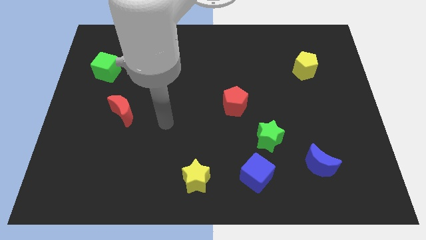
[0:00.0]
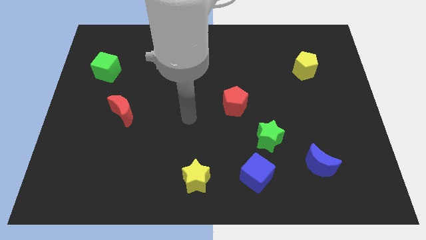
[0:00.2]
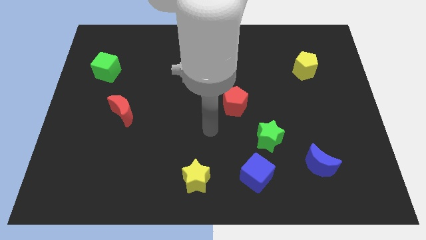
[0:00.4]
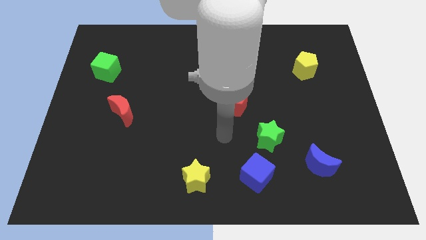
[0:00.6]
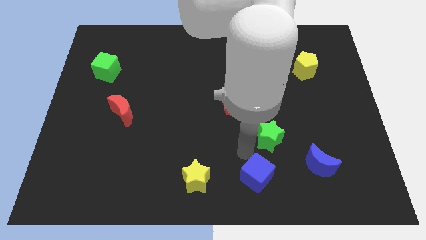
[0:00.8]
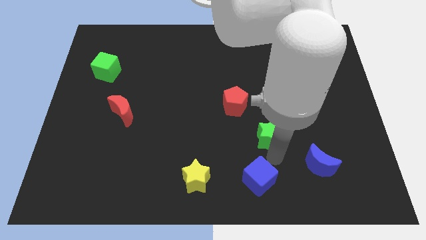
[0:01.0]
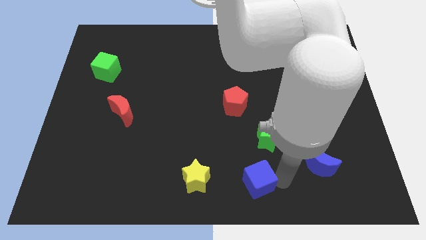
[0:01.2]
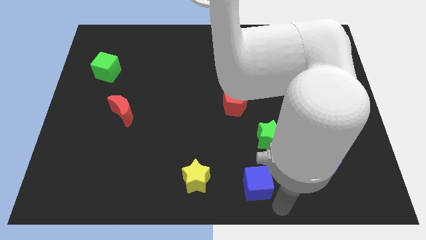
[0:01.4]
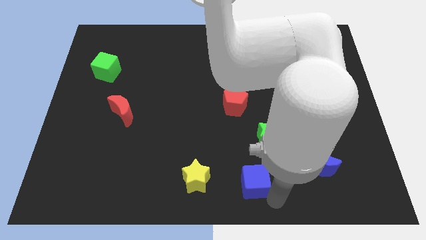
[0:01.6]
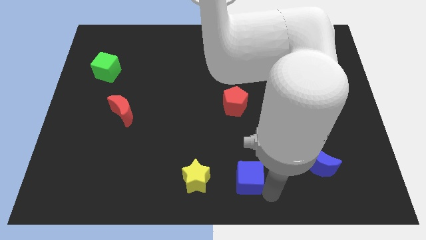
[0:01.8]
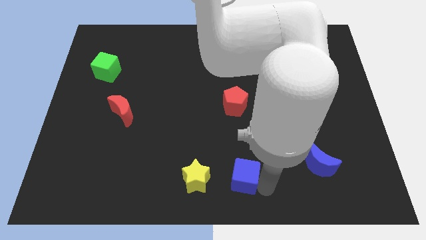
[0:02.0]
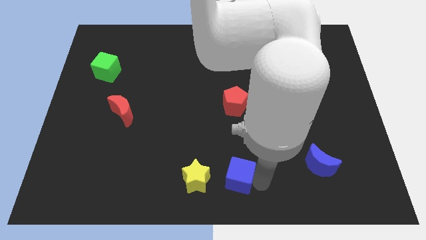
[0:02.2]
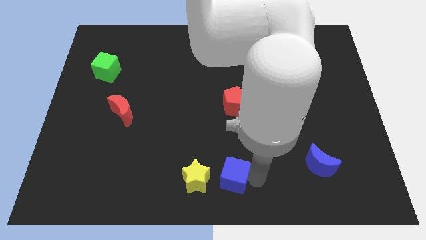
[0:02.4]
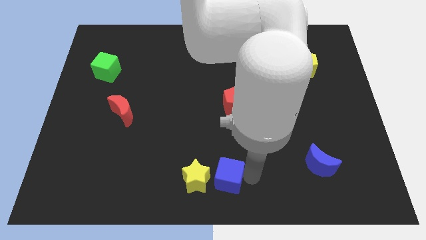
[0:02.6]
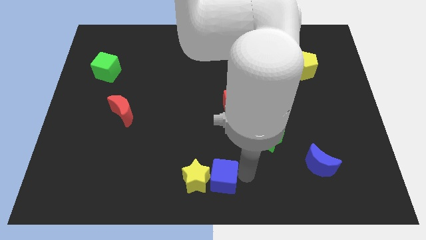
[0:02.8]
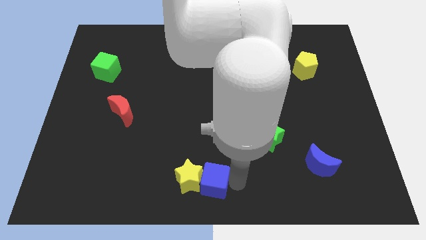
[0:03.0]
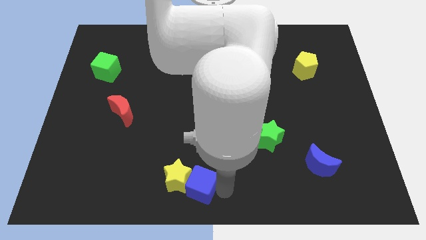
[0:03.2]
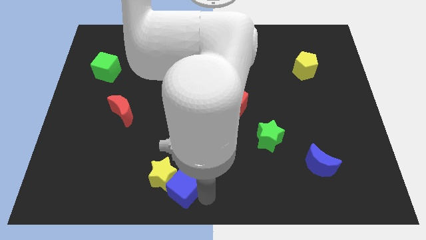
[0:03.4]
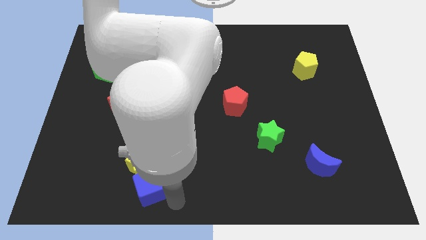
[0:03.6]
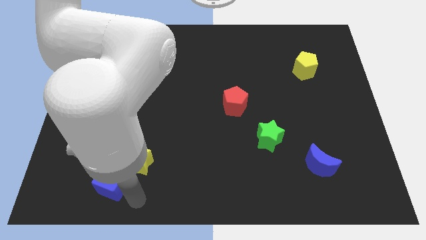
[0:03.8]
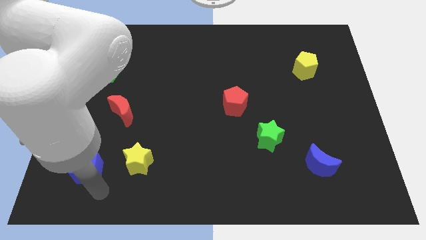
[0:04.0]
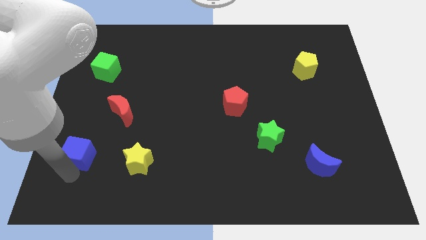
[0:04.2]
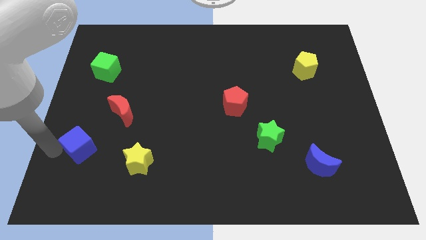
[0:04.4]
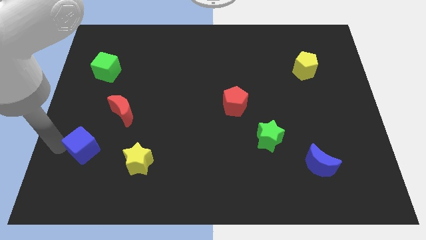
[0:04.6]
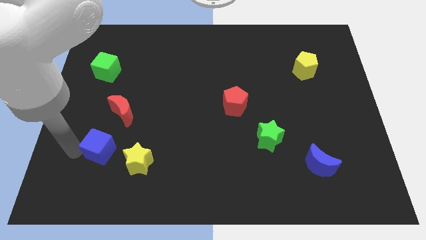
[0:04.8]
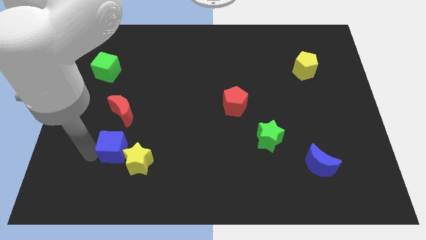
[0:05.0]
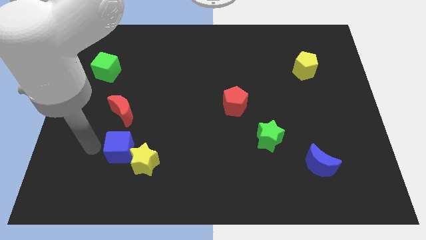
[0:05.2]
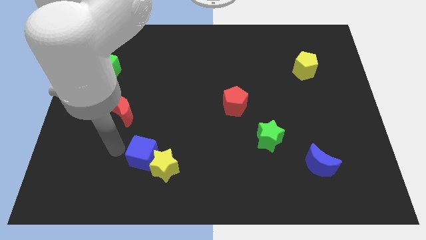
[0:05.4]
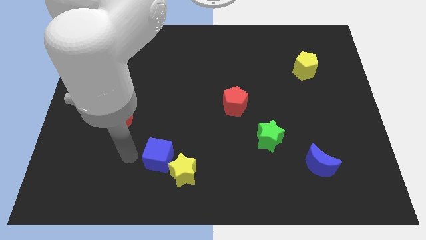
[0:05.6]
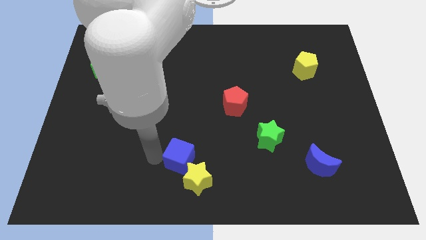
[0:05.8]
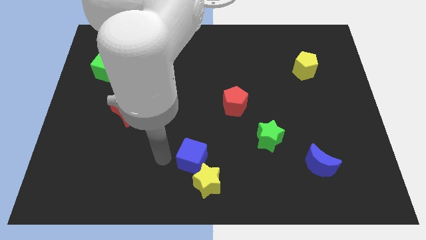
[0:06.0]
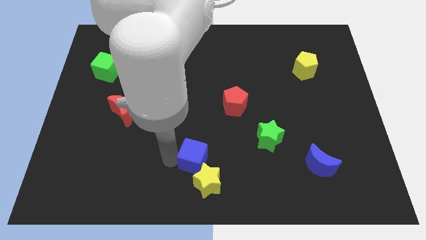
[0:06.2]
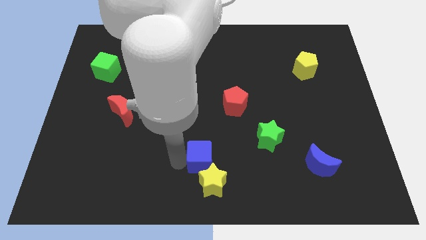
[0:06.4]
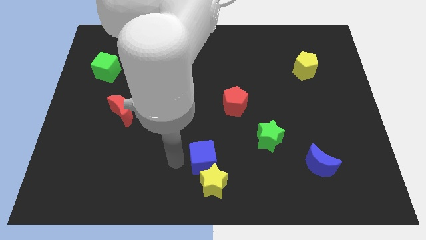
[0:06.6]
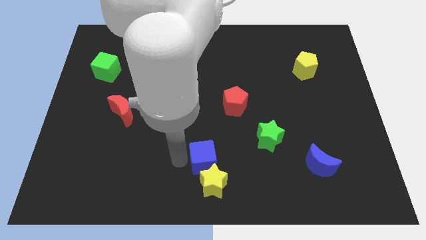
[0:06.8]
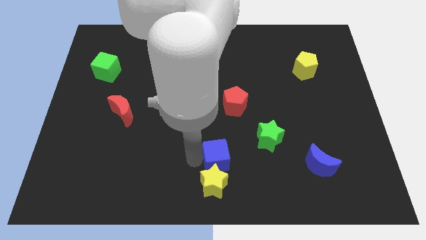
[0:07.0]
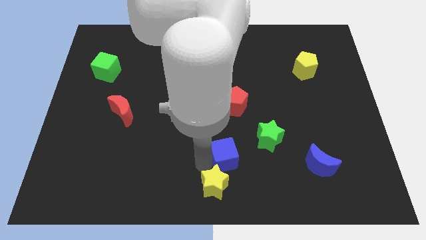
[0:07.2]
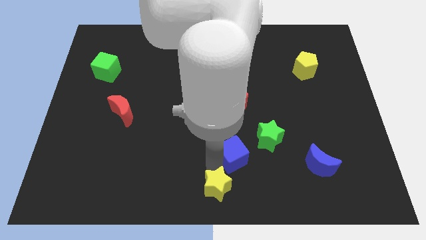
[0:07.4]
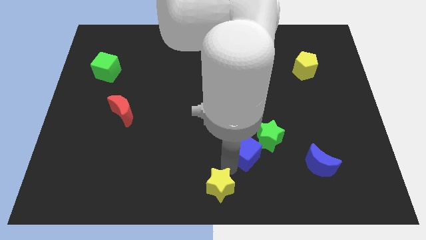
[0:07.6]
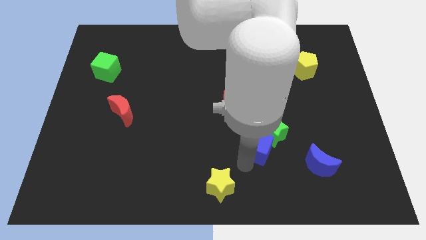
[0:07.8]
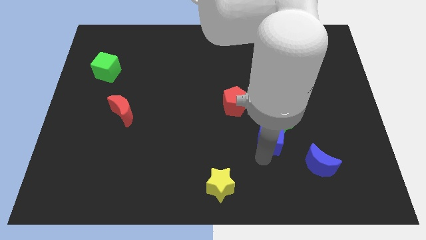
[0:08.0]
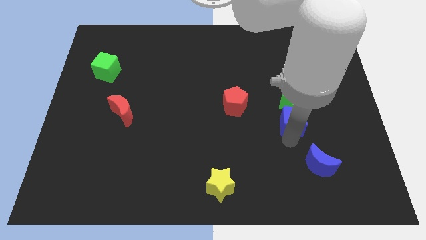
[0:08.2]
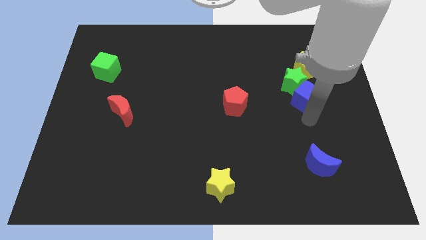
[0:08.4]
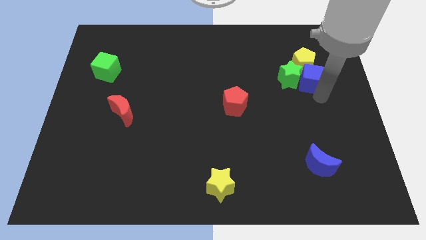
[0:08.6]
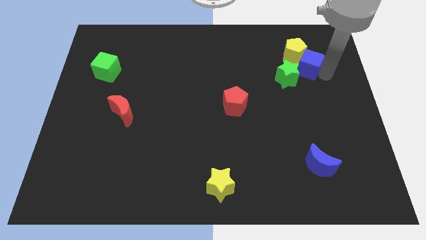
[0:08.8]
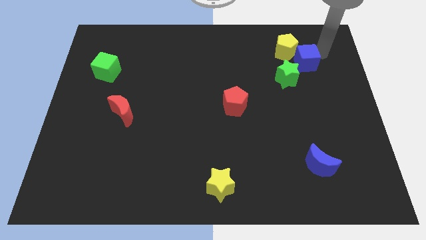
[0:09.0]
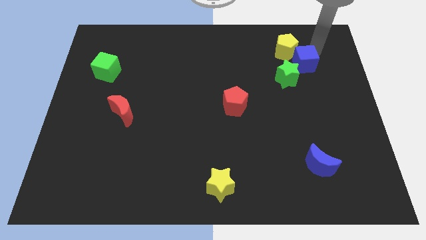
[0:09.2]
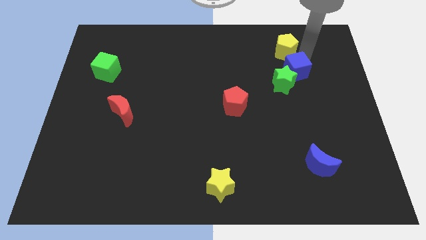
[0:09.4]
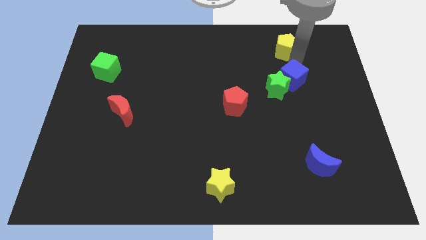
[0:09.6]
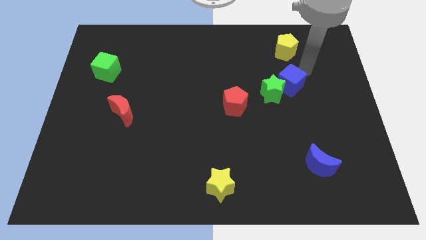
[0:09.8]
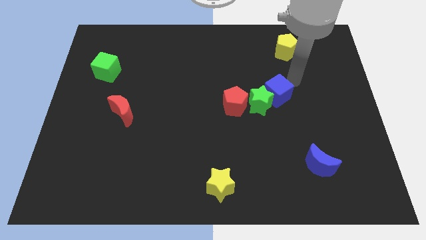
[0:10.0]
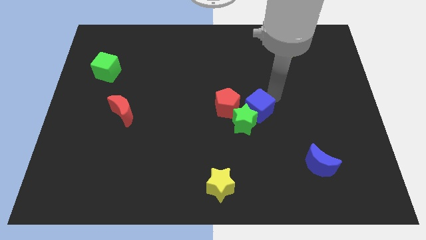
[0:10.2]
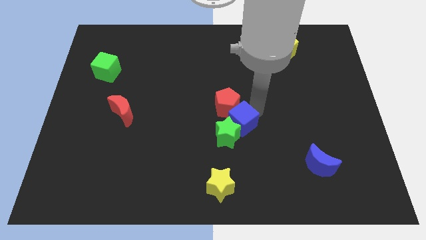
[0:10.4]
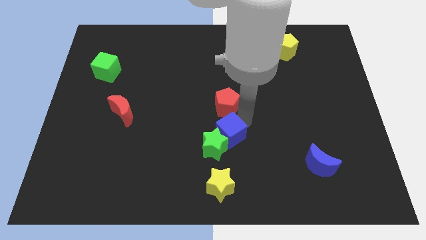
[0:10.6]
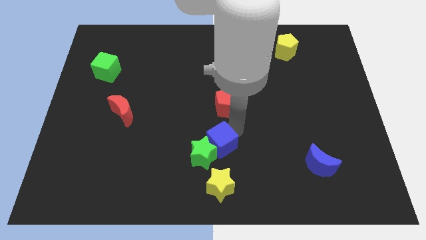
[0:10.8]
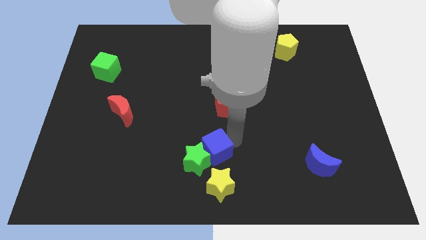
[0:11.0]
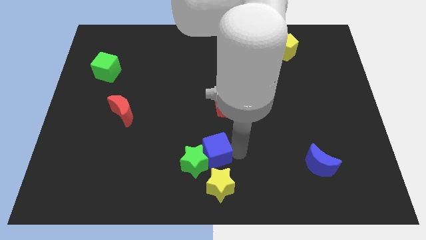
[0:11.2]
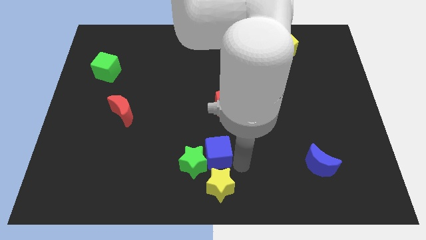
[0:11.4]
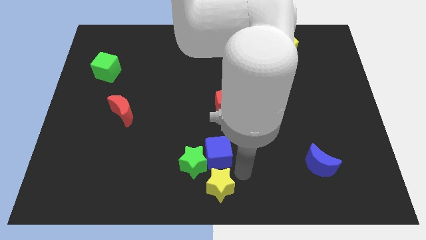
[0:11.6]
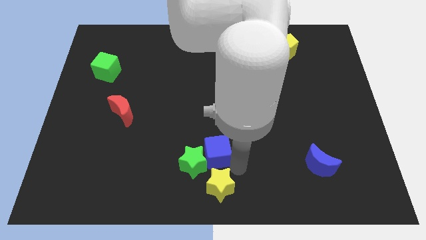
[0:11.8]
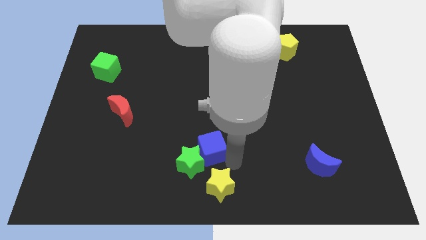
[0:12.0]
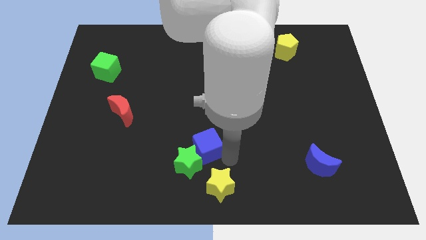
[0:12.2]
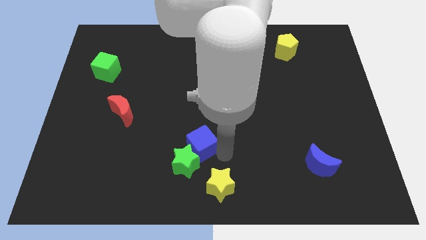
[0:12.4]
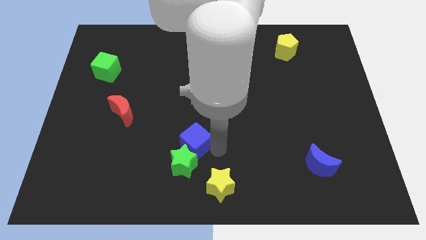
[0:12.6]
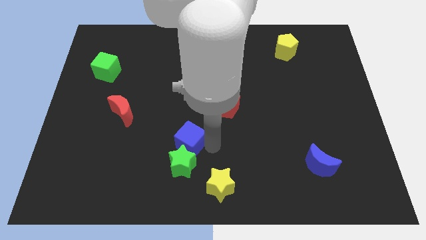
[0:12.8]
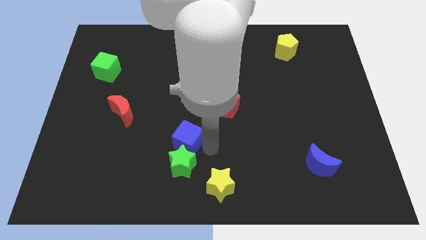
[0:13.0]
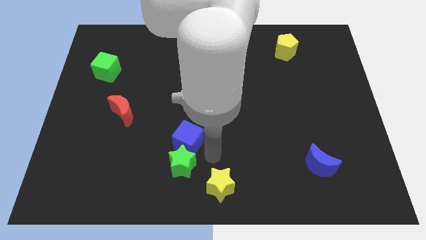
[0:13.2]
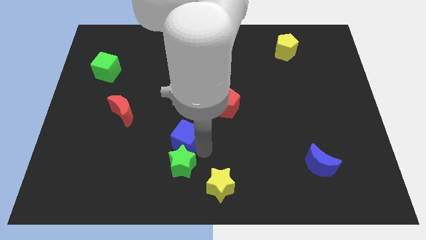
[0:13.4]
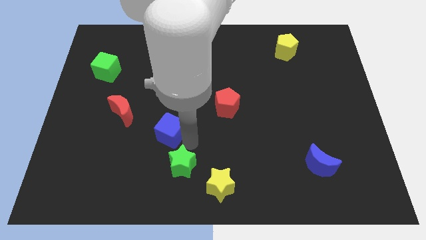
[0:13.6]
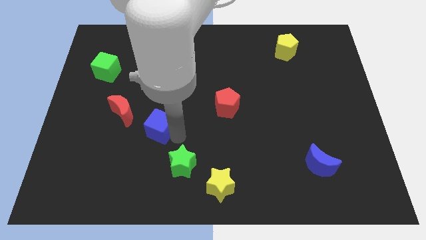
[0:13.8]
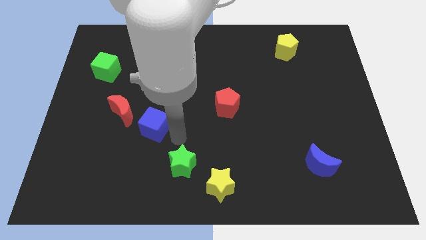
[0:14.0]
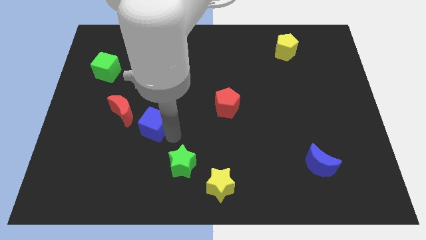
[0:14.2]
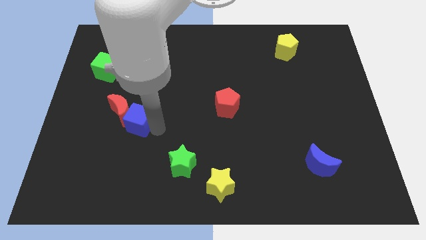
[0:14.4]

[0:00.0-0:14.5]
push the blue cube to the red moon

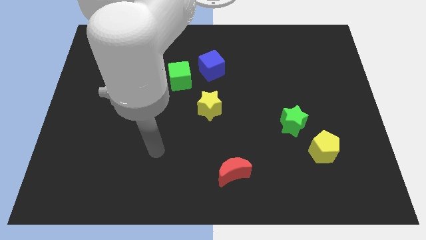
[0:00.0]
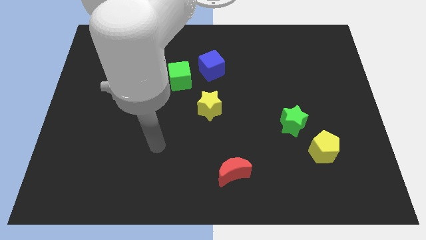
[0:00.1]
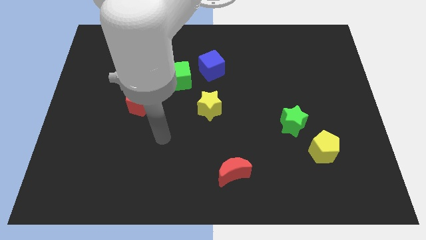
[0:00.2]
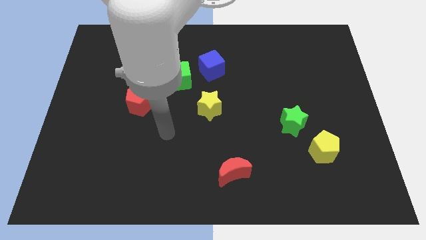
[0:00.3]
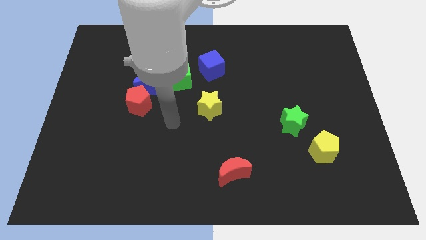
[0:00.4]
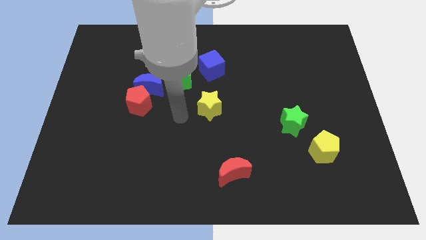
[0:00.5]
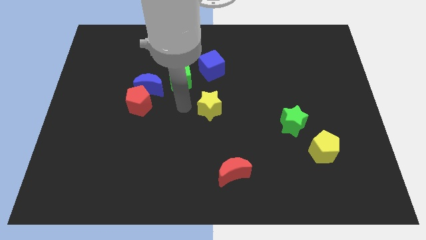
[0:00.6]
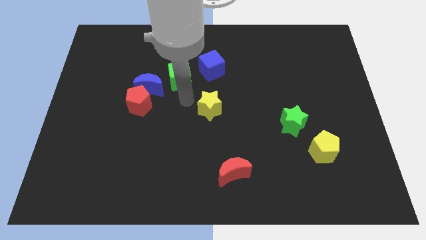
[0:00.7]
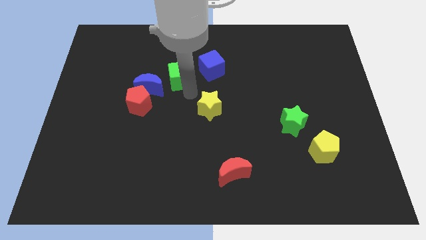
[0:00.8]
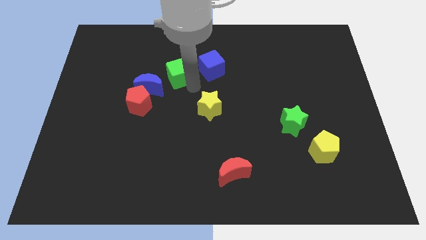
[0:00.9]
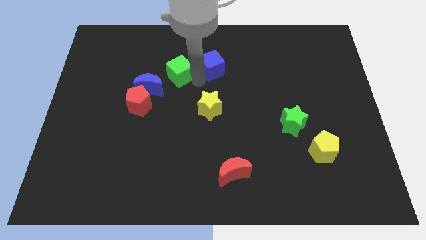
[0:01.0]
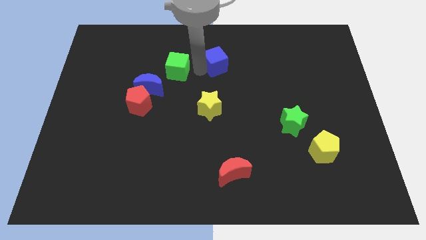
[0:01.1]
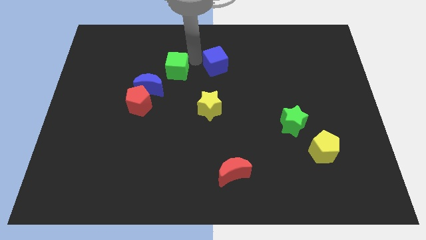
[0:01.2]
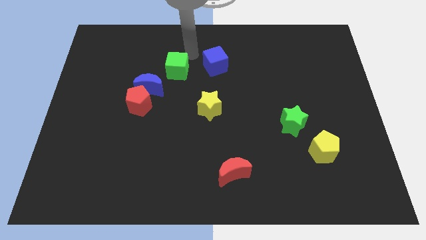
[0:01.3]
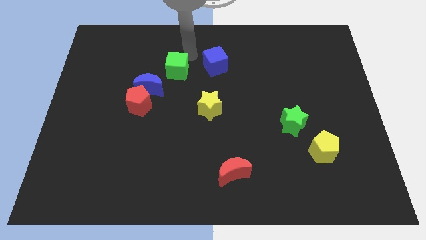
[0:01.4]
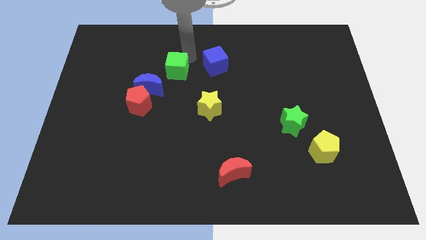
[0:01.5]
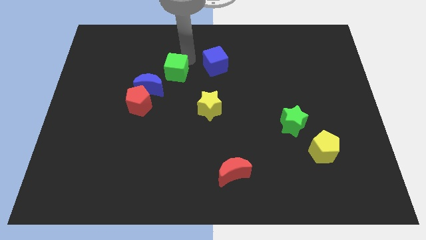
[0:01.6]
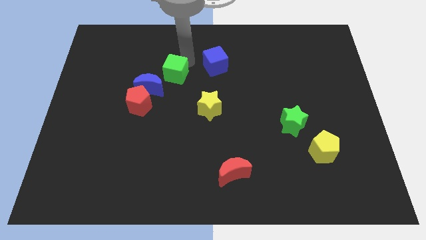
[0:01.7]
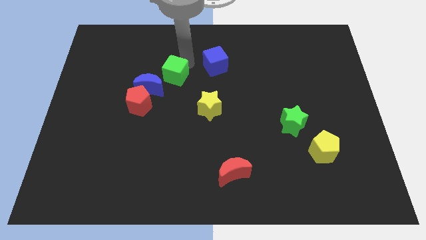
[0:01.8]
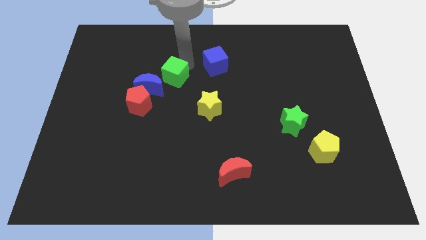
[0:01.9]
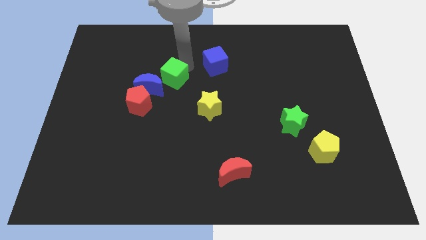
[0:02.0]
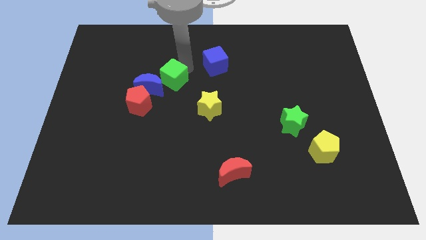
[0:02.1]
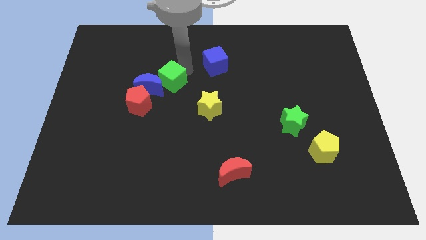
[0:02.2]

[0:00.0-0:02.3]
slide the green cube close to the blue moon
